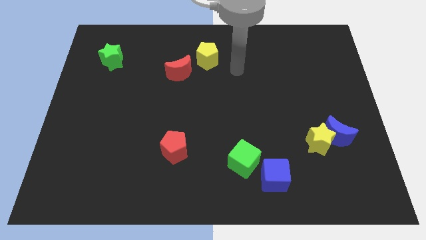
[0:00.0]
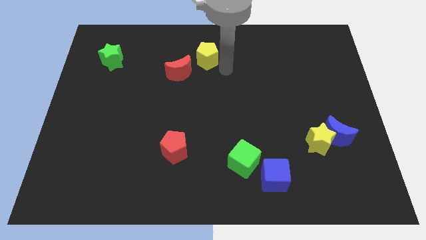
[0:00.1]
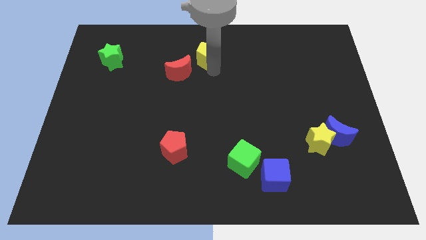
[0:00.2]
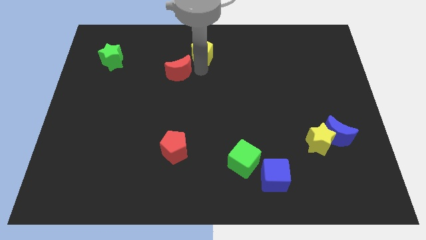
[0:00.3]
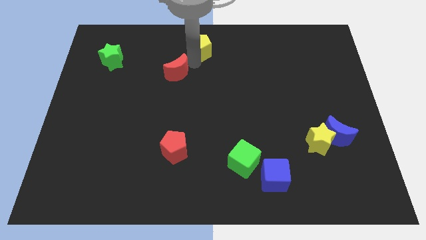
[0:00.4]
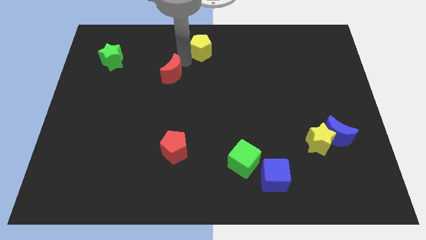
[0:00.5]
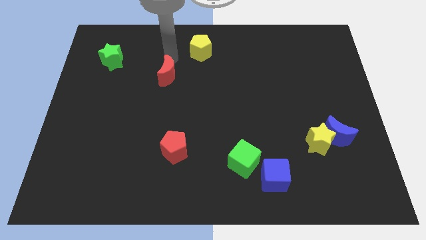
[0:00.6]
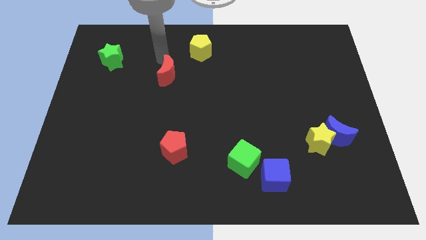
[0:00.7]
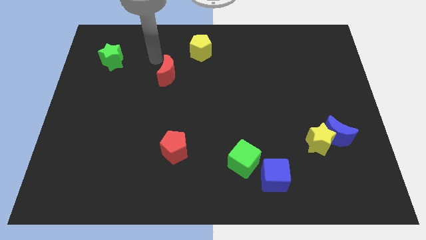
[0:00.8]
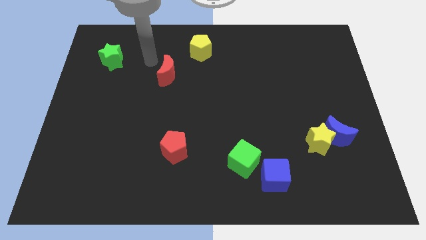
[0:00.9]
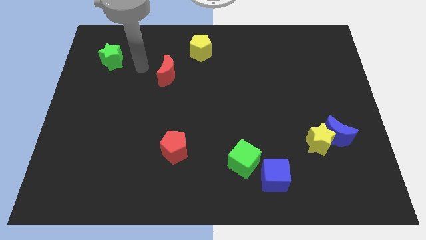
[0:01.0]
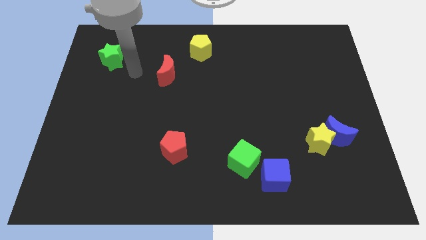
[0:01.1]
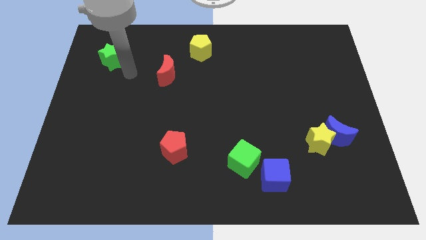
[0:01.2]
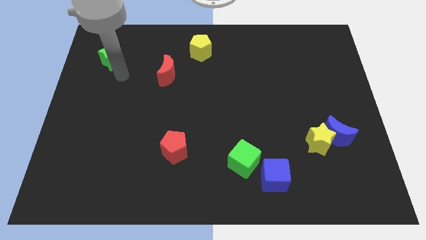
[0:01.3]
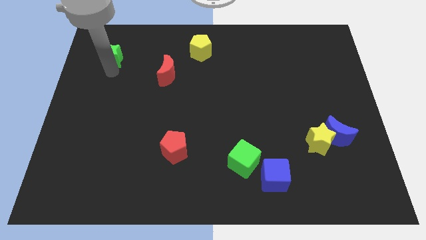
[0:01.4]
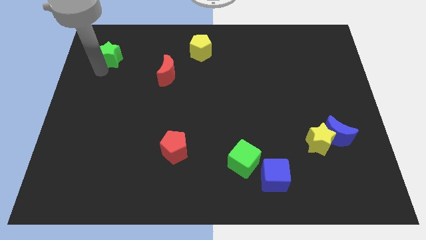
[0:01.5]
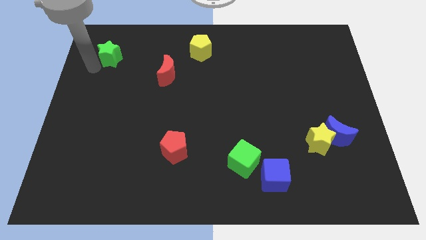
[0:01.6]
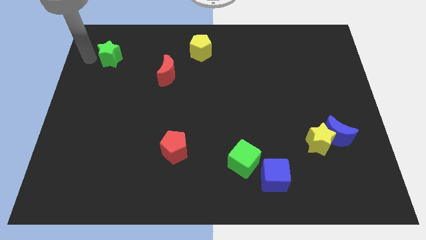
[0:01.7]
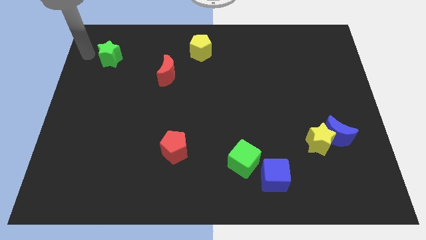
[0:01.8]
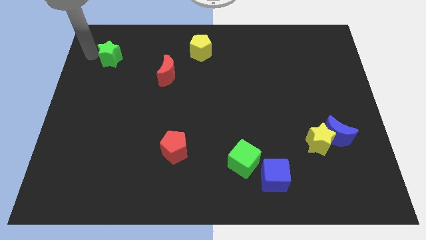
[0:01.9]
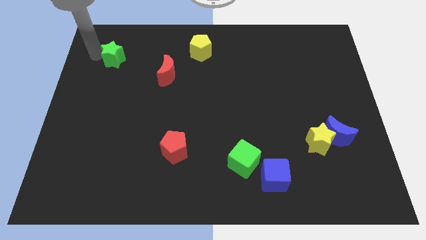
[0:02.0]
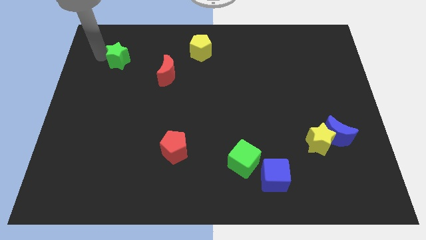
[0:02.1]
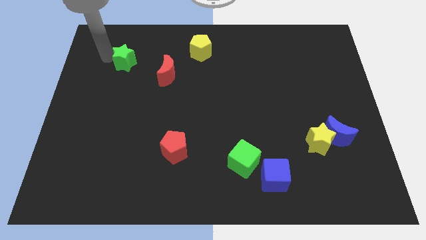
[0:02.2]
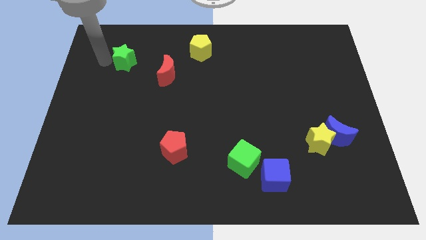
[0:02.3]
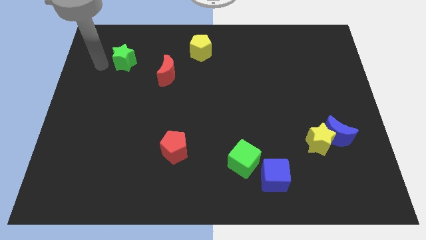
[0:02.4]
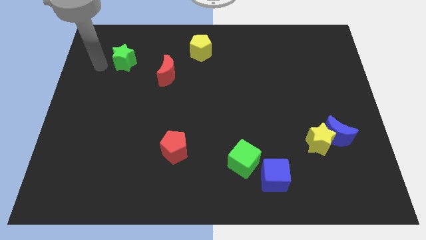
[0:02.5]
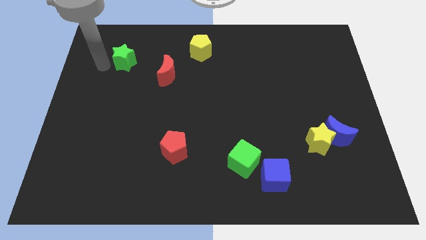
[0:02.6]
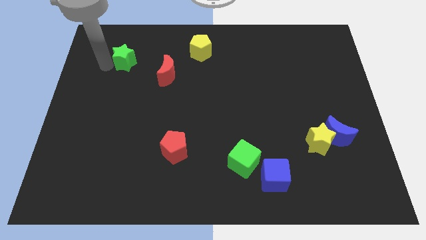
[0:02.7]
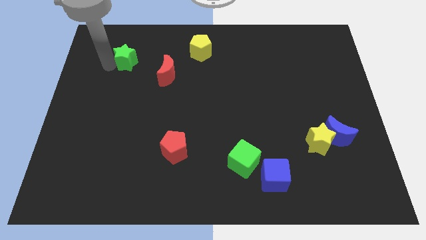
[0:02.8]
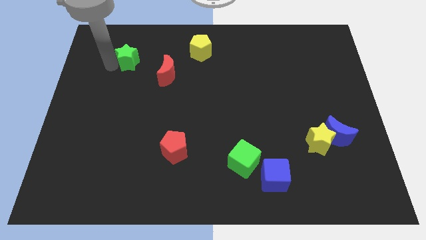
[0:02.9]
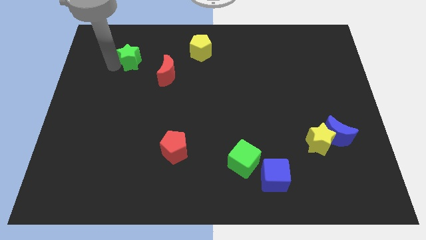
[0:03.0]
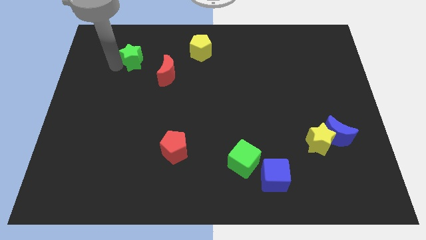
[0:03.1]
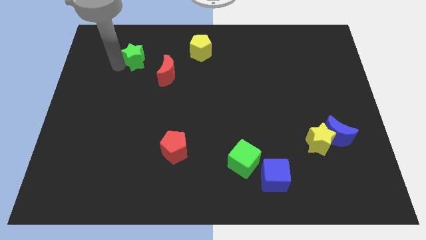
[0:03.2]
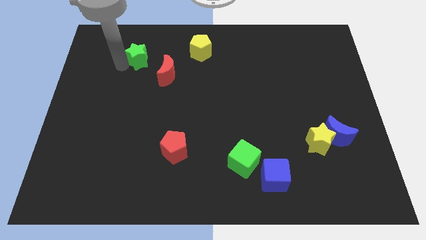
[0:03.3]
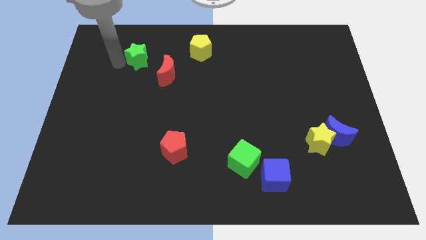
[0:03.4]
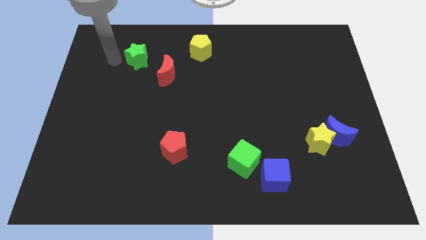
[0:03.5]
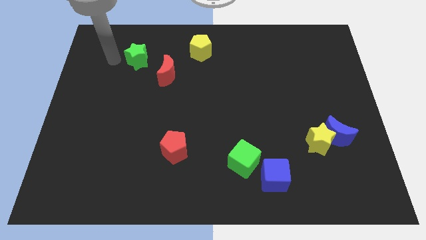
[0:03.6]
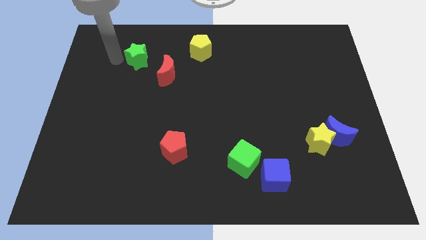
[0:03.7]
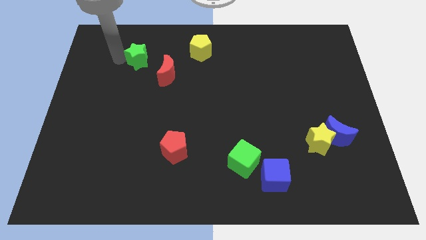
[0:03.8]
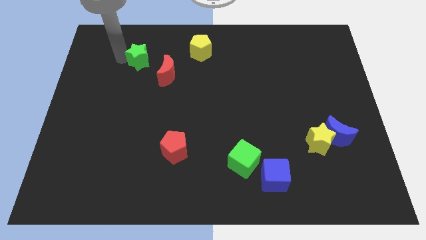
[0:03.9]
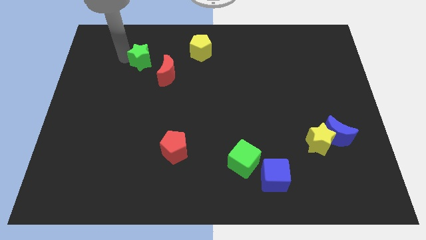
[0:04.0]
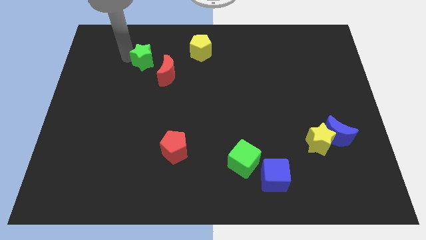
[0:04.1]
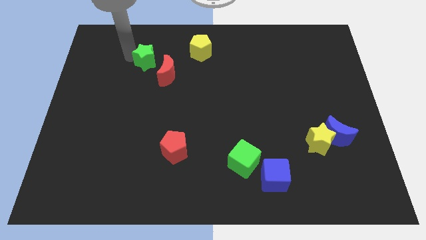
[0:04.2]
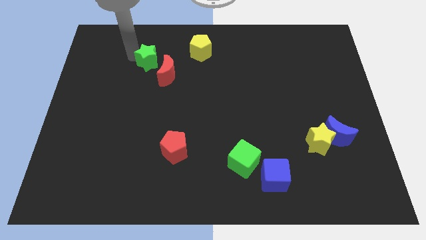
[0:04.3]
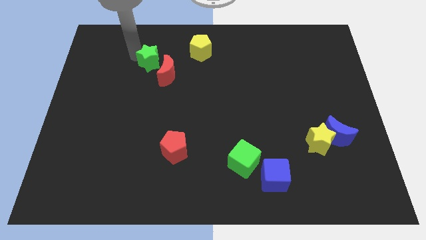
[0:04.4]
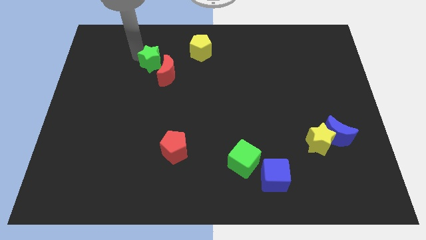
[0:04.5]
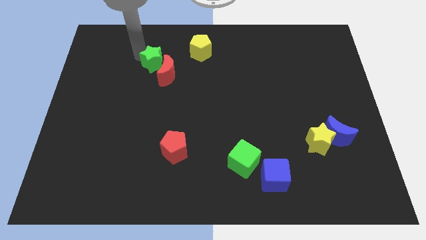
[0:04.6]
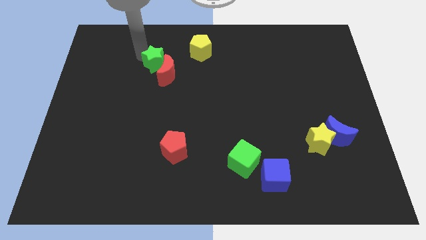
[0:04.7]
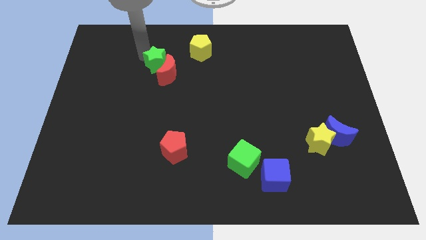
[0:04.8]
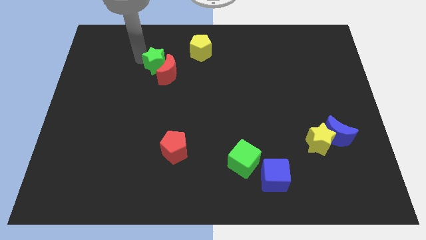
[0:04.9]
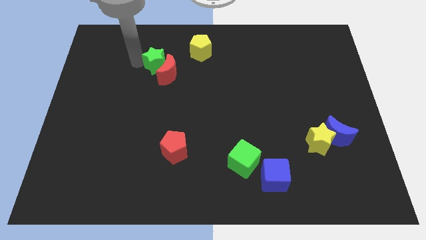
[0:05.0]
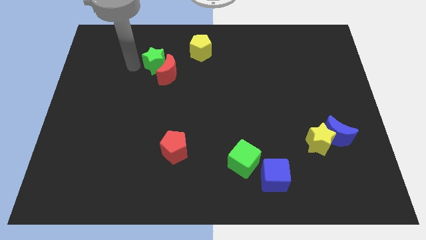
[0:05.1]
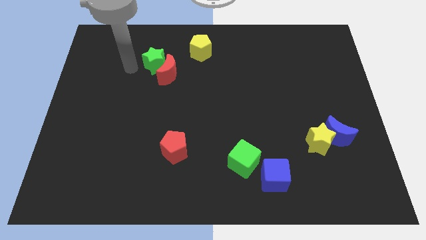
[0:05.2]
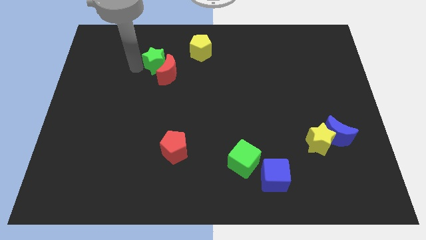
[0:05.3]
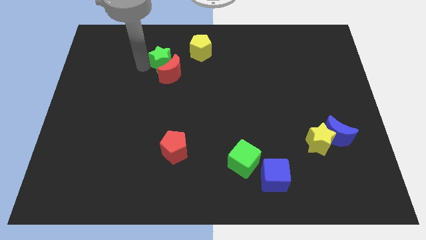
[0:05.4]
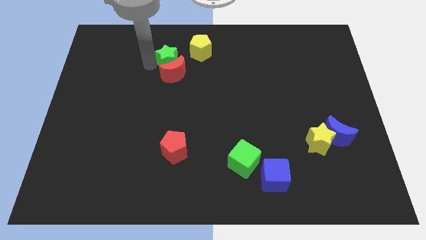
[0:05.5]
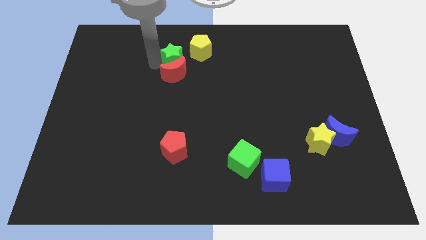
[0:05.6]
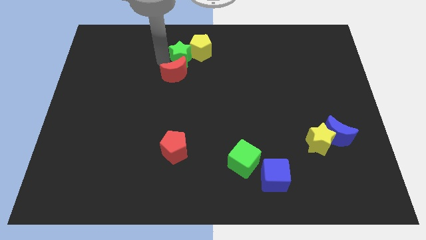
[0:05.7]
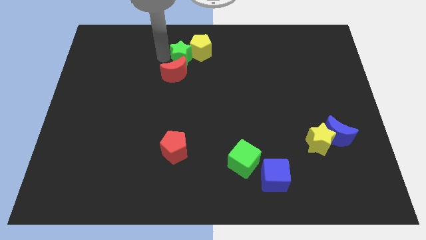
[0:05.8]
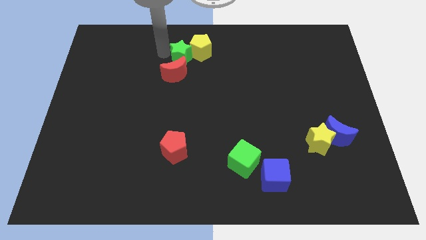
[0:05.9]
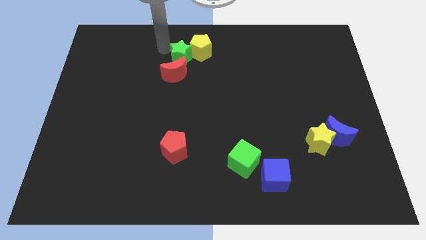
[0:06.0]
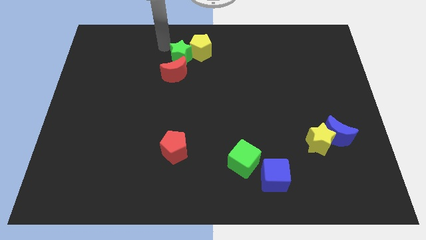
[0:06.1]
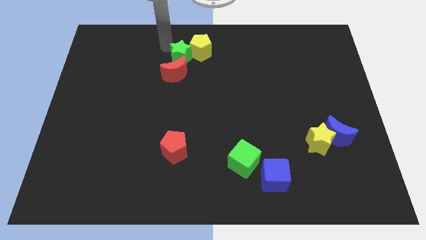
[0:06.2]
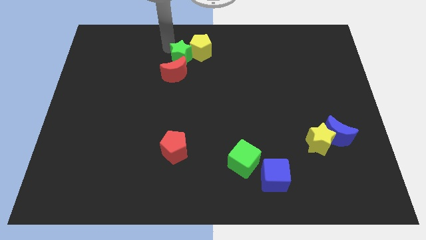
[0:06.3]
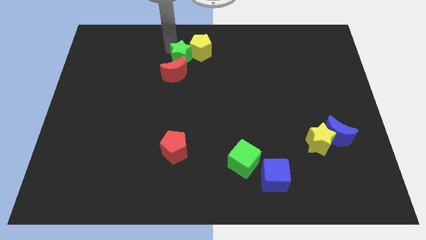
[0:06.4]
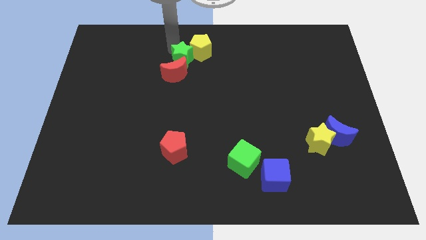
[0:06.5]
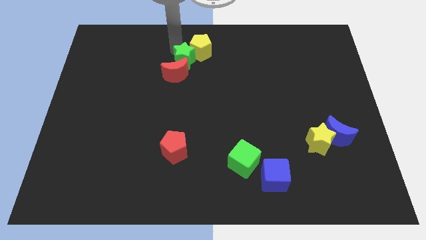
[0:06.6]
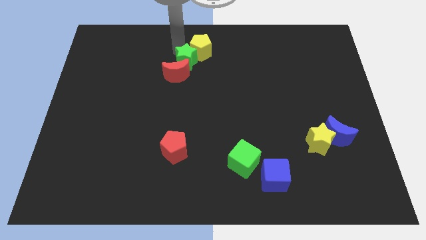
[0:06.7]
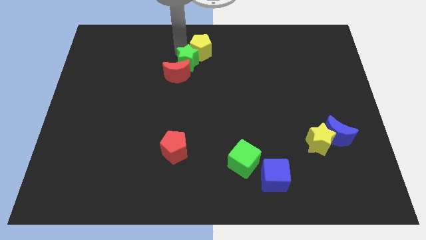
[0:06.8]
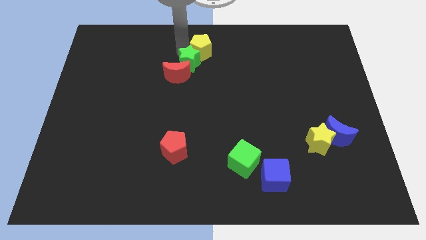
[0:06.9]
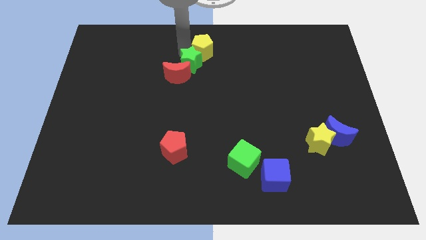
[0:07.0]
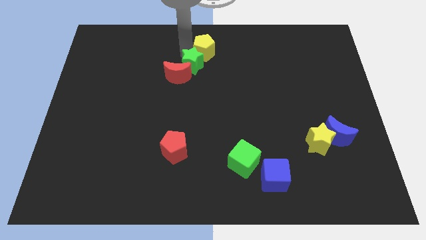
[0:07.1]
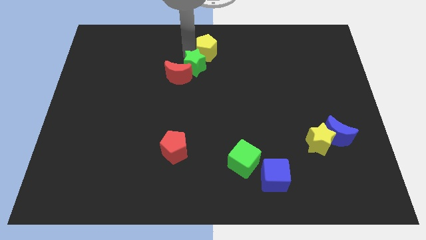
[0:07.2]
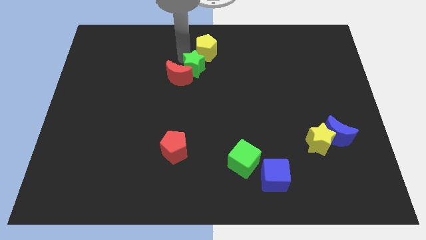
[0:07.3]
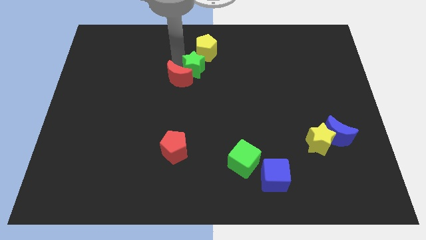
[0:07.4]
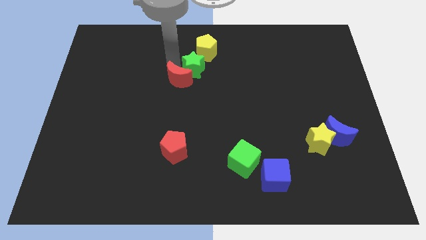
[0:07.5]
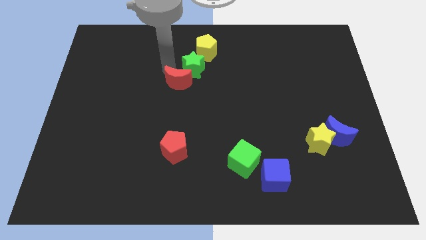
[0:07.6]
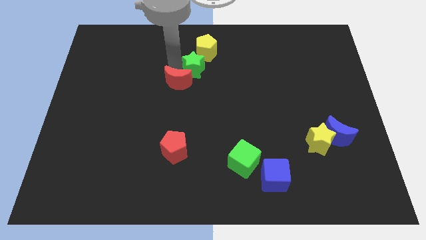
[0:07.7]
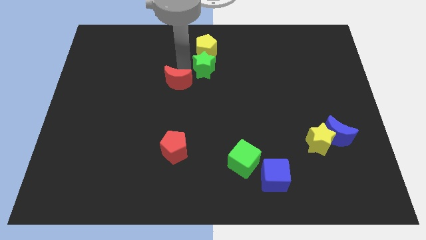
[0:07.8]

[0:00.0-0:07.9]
push the green star to the bottom right side of the yellow pentagon
